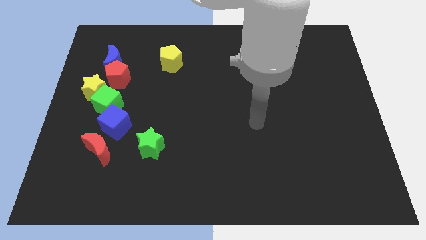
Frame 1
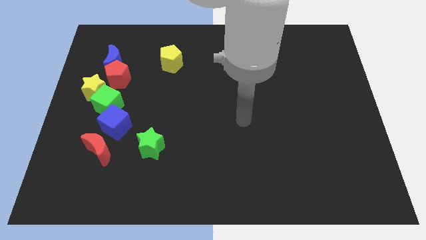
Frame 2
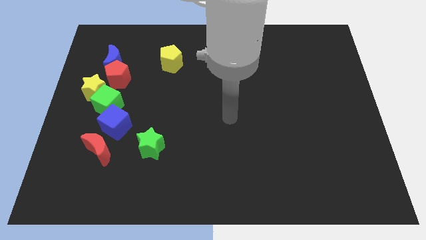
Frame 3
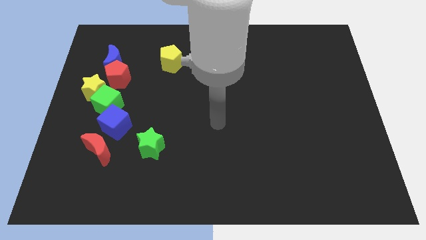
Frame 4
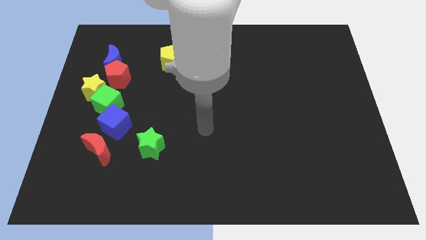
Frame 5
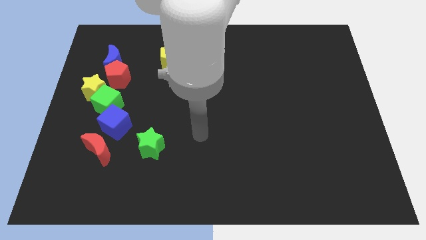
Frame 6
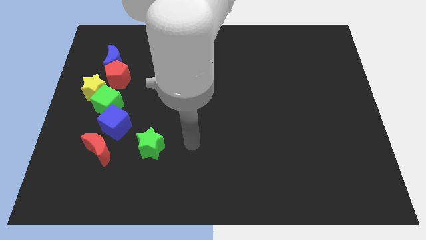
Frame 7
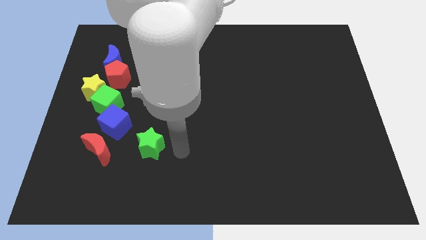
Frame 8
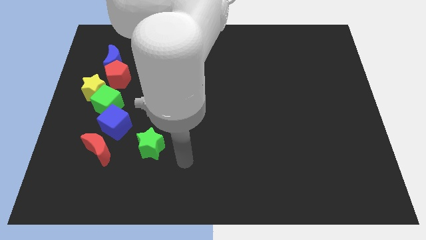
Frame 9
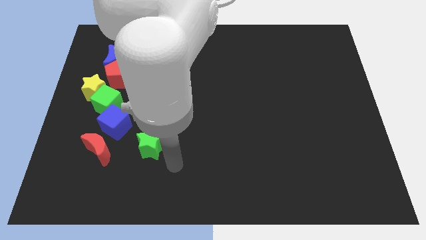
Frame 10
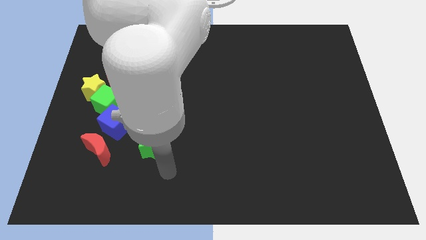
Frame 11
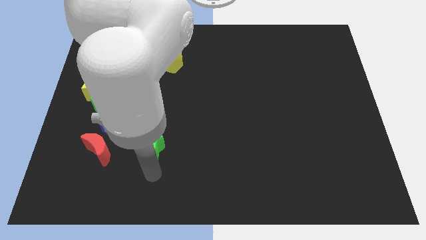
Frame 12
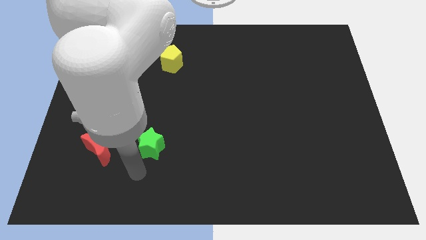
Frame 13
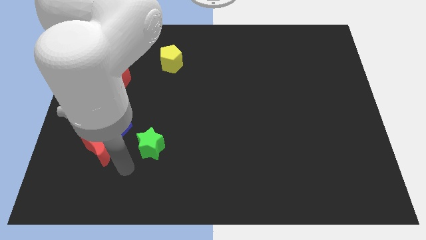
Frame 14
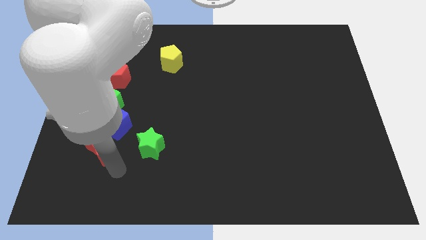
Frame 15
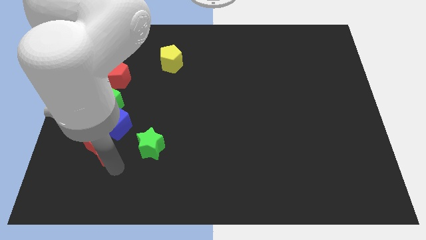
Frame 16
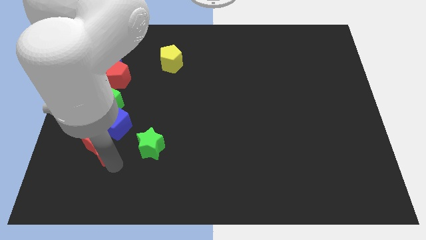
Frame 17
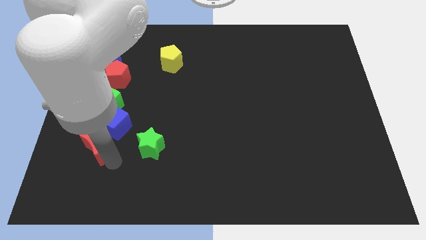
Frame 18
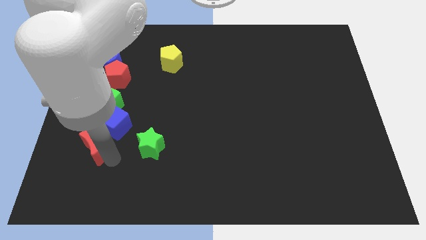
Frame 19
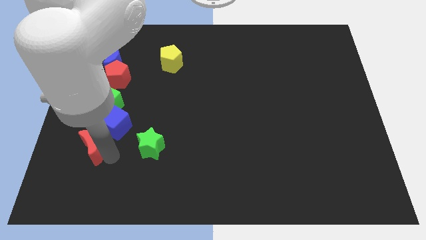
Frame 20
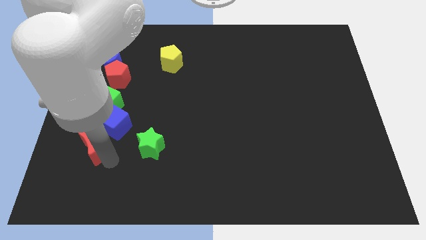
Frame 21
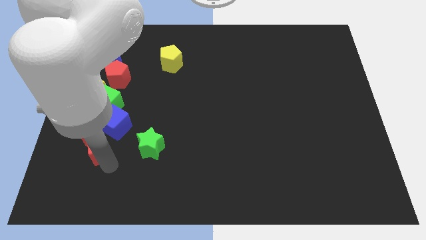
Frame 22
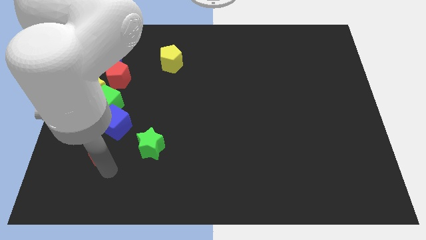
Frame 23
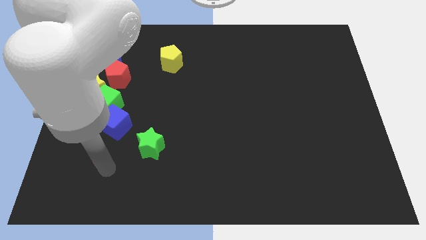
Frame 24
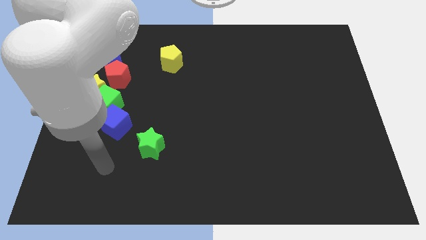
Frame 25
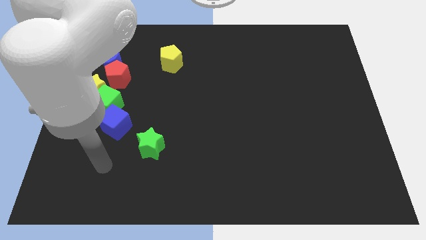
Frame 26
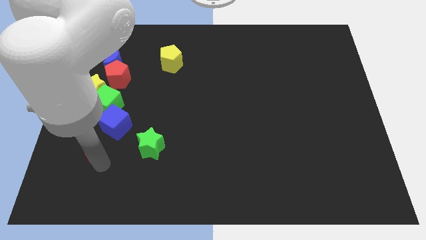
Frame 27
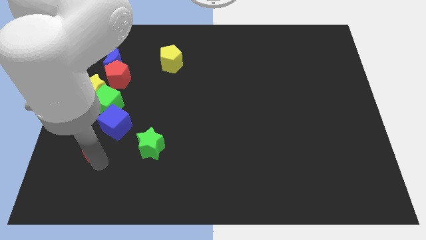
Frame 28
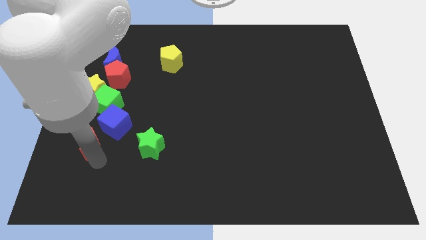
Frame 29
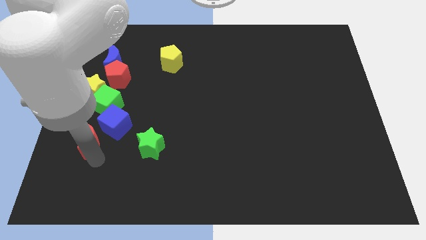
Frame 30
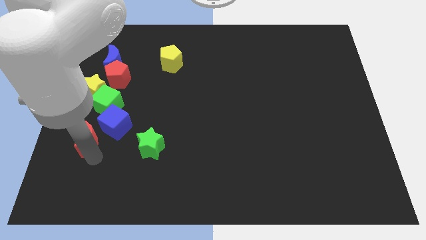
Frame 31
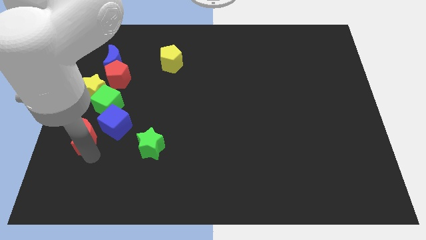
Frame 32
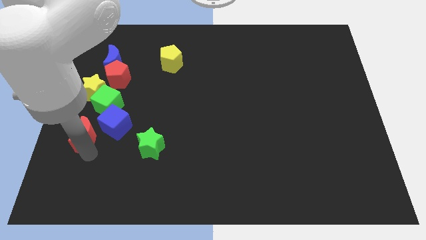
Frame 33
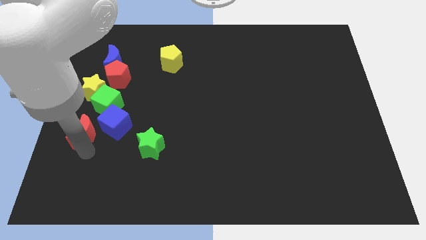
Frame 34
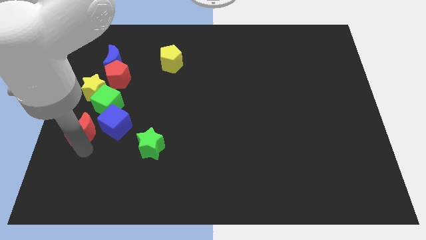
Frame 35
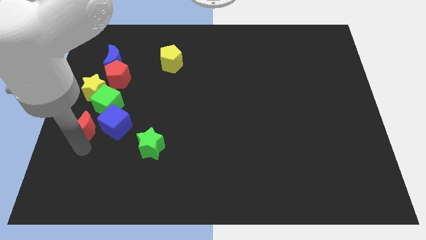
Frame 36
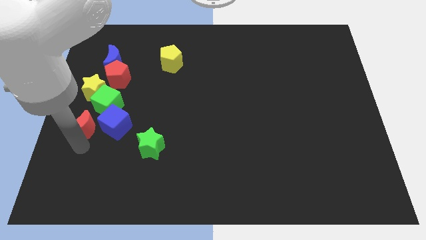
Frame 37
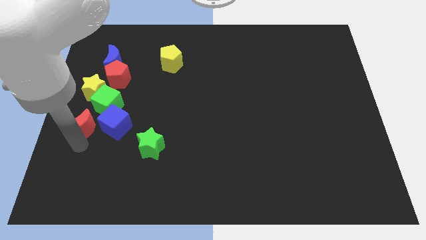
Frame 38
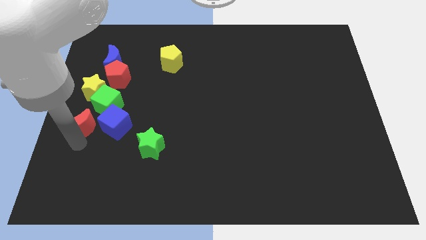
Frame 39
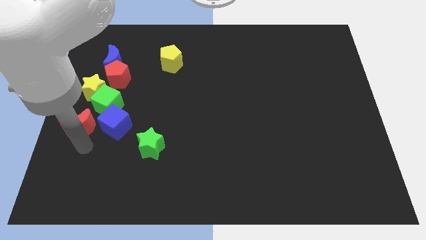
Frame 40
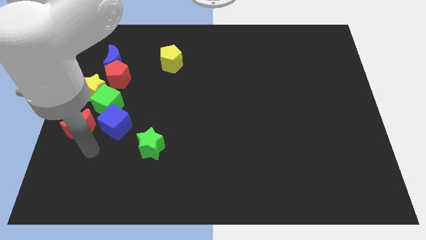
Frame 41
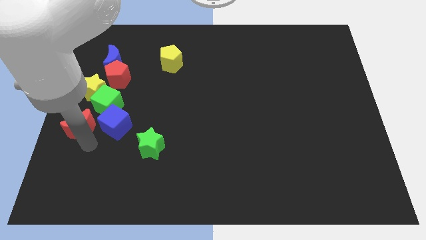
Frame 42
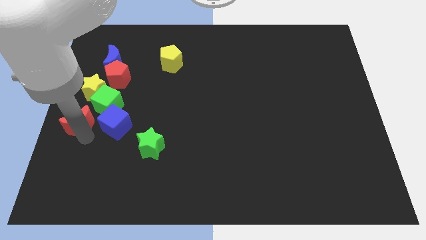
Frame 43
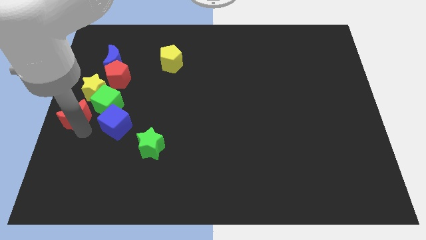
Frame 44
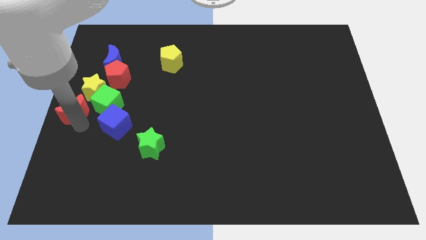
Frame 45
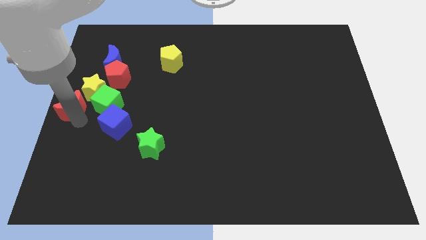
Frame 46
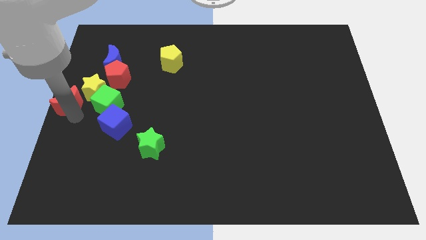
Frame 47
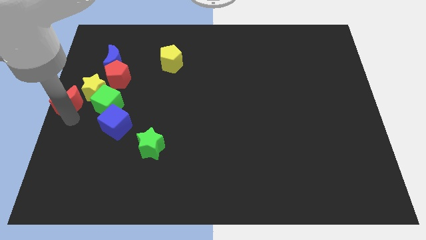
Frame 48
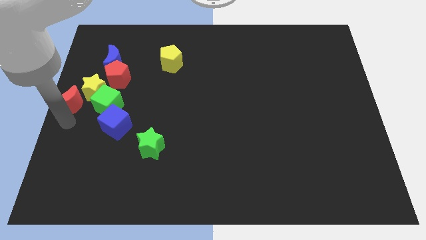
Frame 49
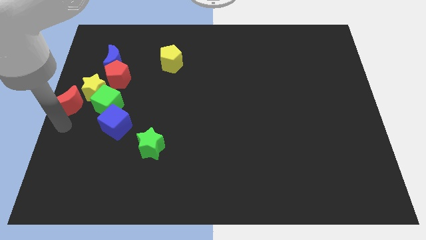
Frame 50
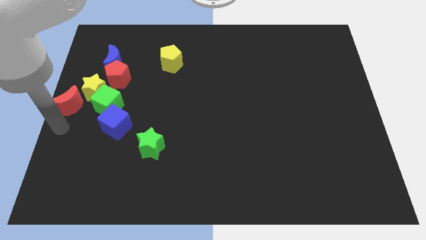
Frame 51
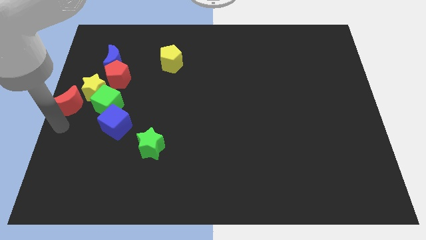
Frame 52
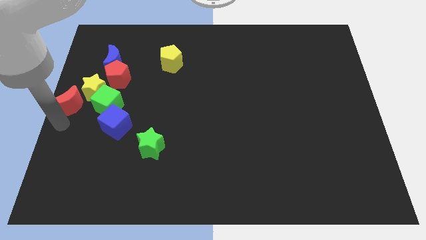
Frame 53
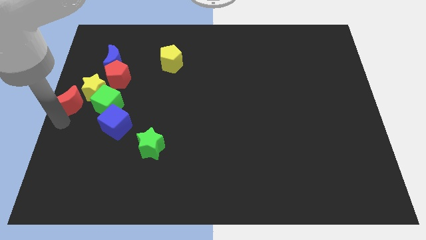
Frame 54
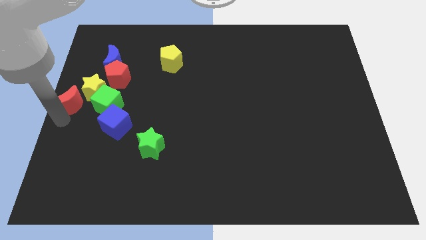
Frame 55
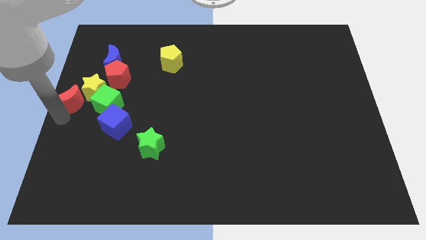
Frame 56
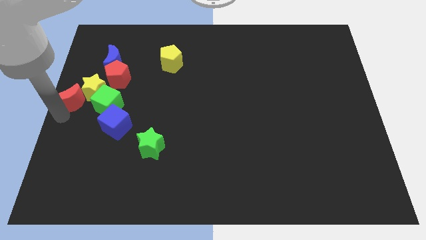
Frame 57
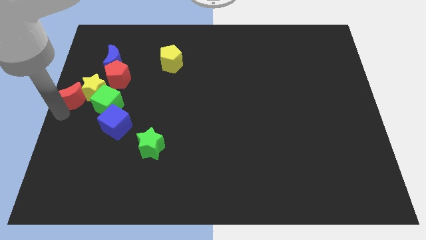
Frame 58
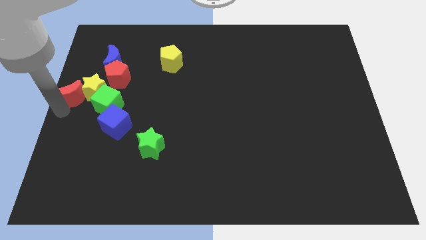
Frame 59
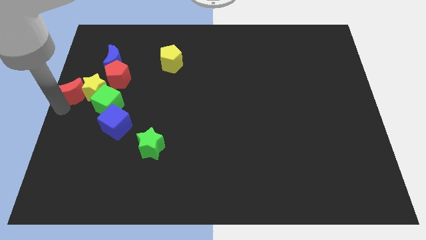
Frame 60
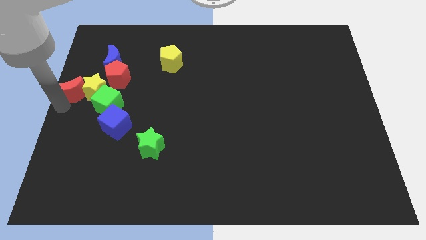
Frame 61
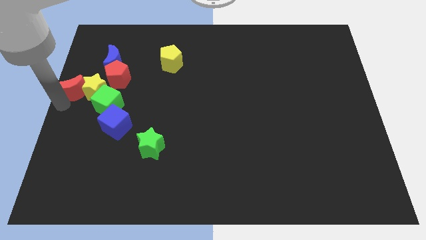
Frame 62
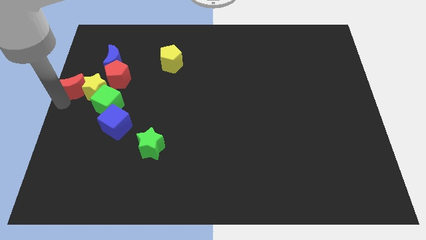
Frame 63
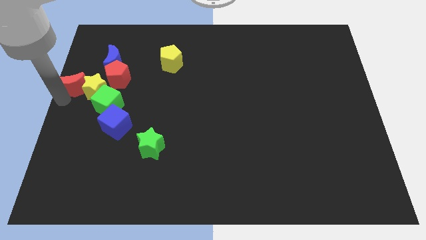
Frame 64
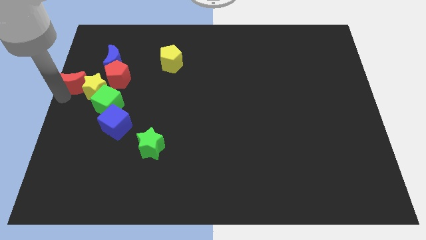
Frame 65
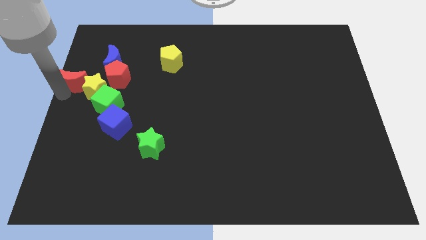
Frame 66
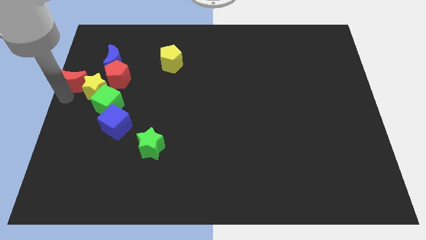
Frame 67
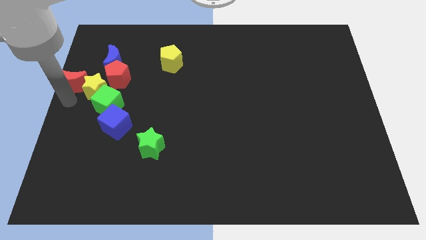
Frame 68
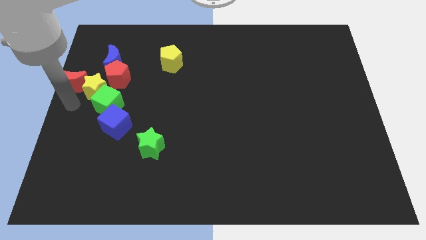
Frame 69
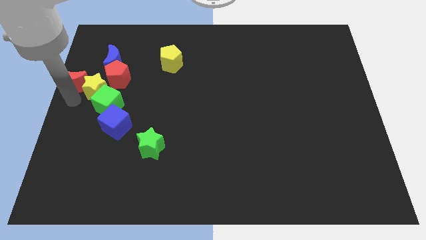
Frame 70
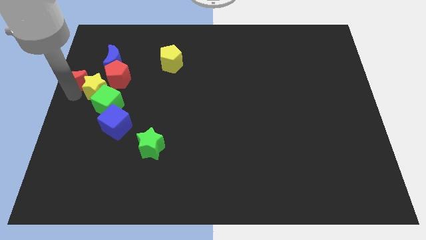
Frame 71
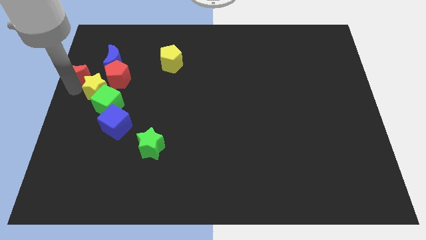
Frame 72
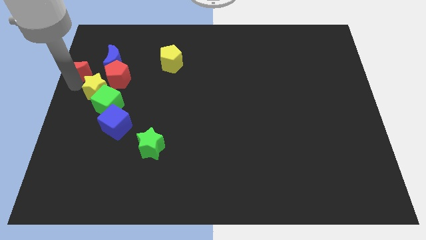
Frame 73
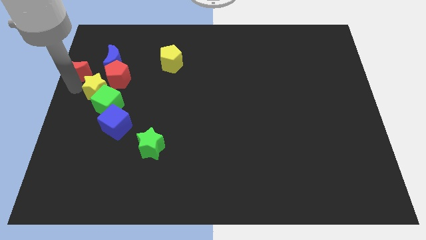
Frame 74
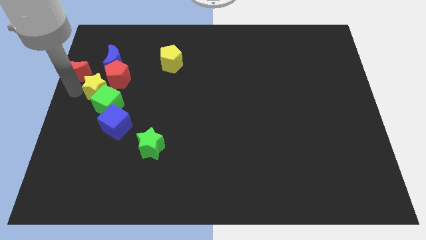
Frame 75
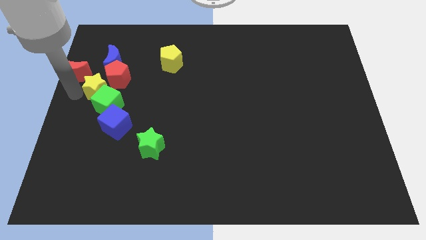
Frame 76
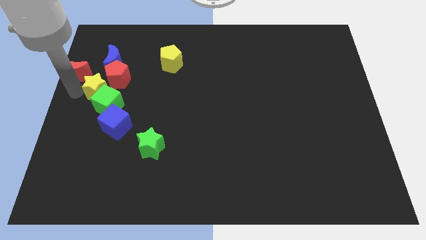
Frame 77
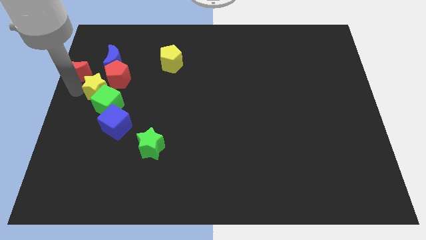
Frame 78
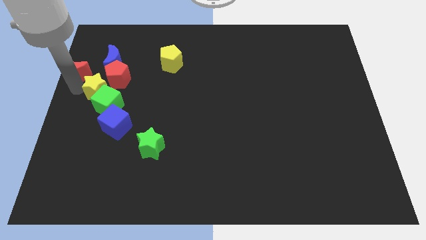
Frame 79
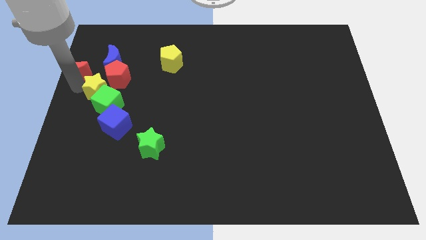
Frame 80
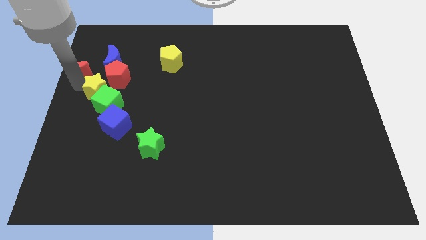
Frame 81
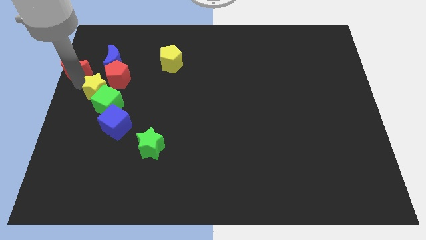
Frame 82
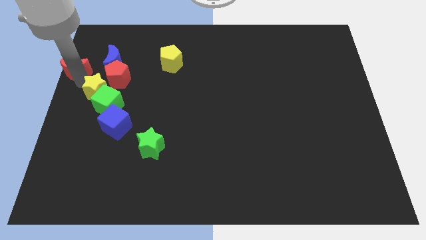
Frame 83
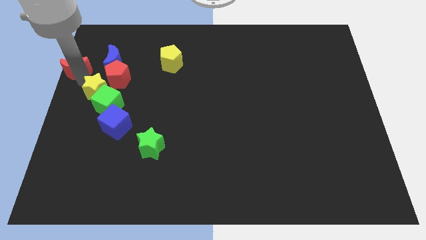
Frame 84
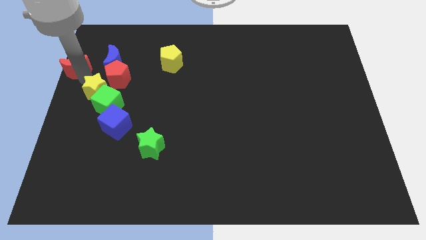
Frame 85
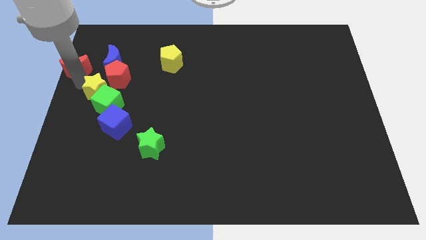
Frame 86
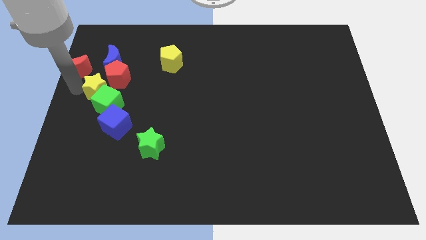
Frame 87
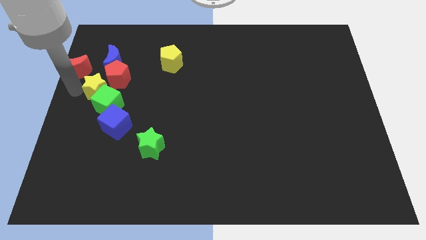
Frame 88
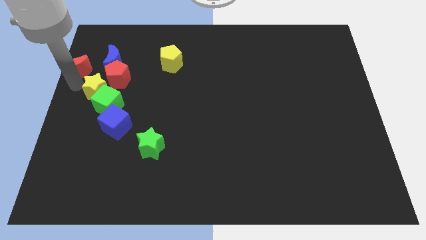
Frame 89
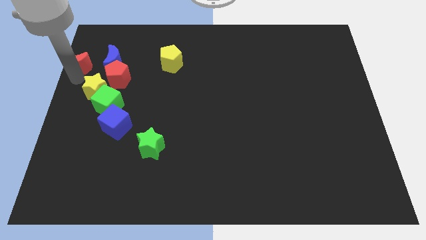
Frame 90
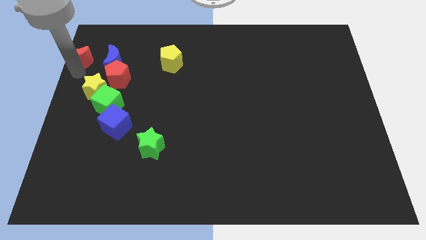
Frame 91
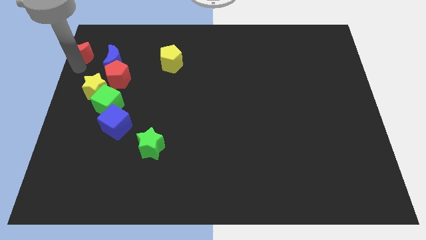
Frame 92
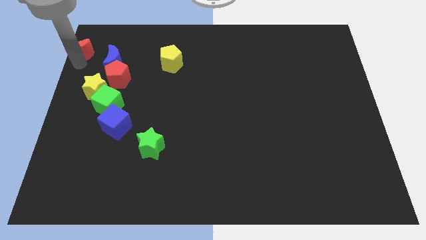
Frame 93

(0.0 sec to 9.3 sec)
put the red moon to the top left corner
